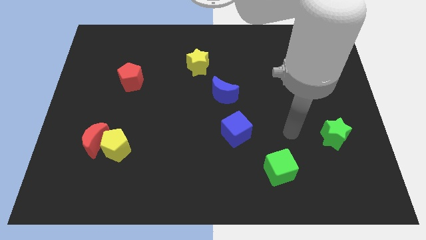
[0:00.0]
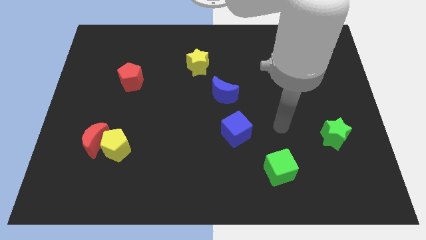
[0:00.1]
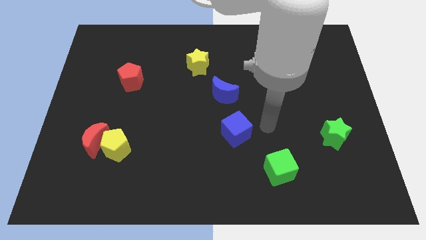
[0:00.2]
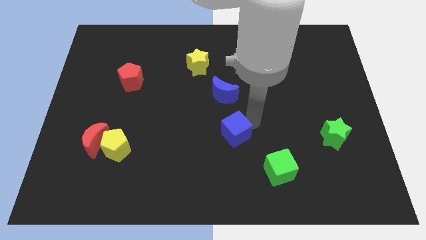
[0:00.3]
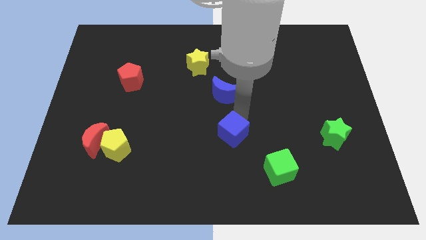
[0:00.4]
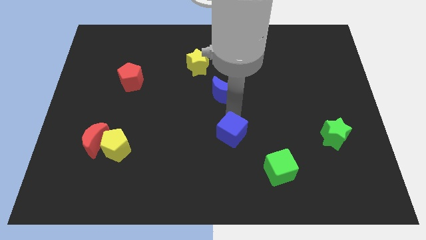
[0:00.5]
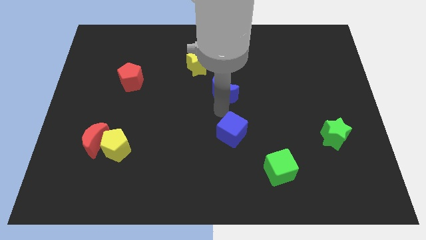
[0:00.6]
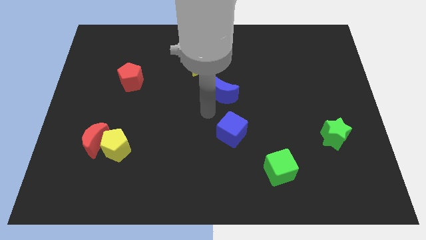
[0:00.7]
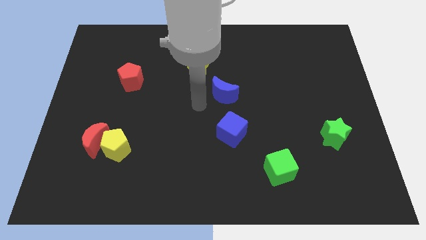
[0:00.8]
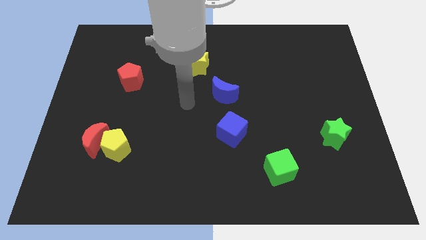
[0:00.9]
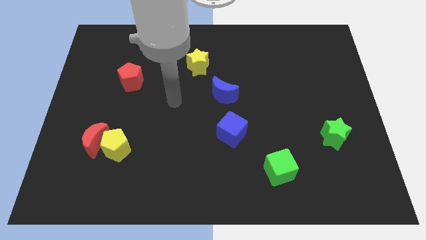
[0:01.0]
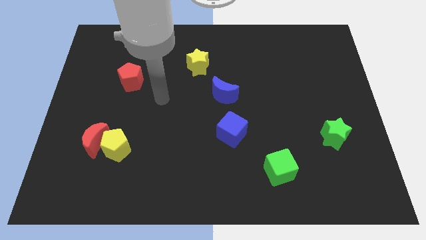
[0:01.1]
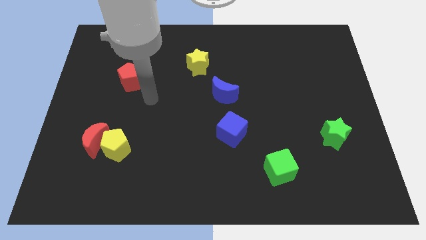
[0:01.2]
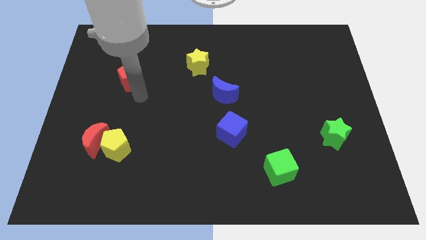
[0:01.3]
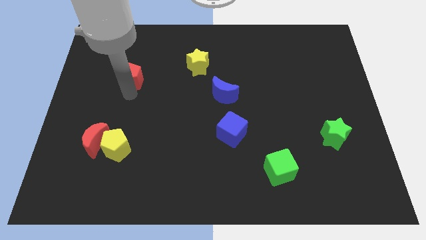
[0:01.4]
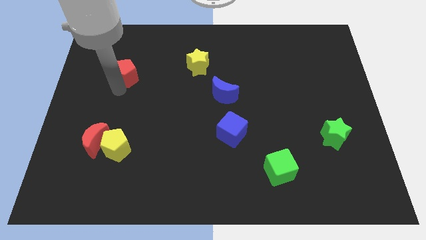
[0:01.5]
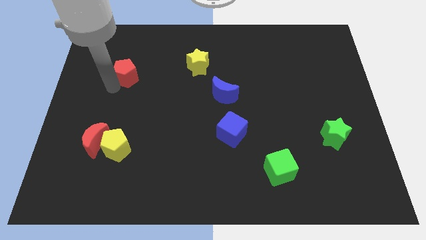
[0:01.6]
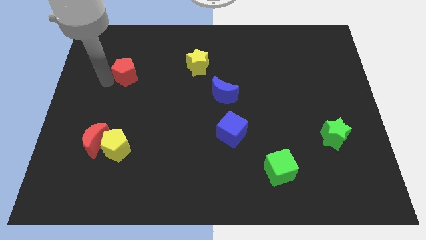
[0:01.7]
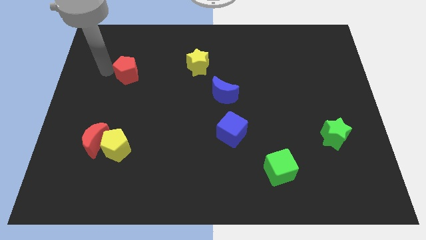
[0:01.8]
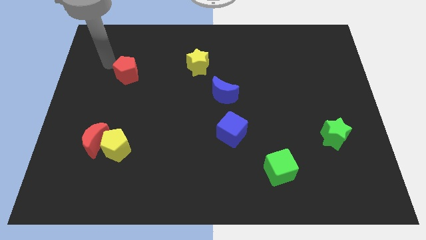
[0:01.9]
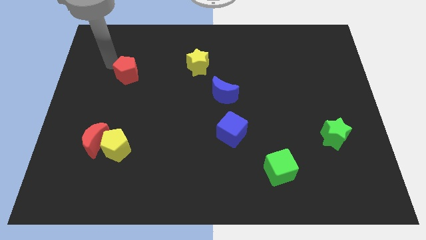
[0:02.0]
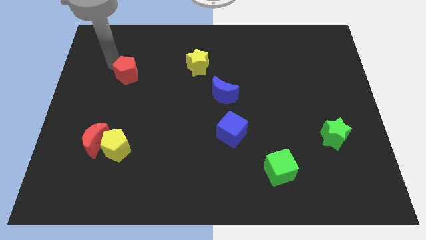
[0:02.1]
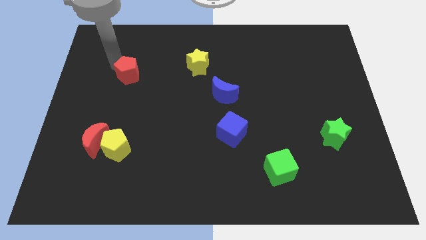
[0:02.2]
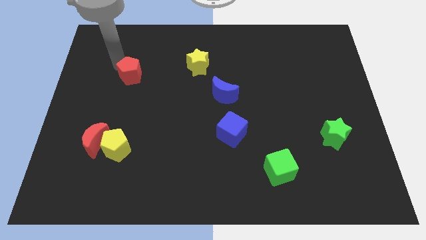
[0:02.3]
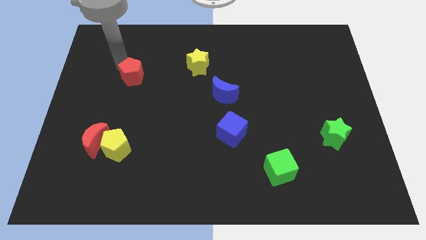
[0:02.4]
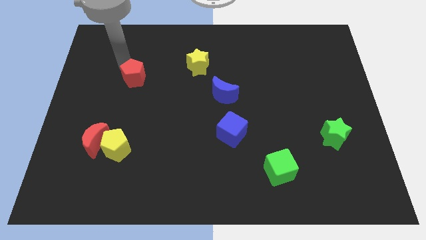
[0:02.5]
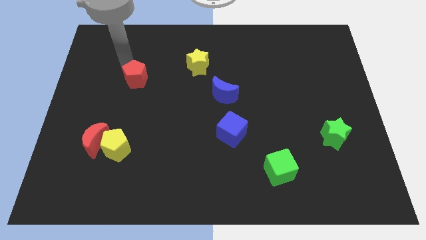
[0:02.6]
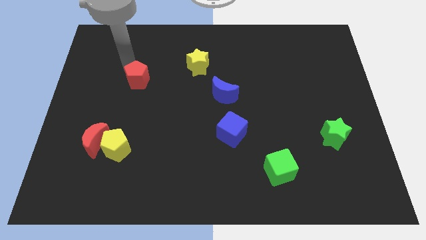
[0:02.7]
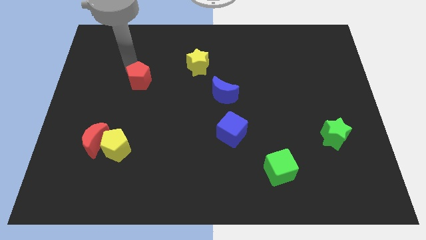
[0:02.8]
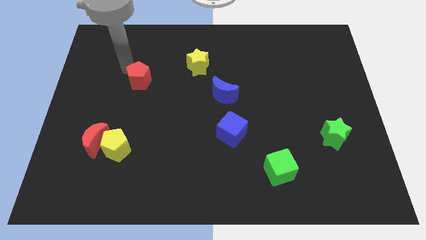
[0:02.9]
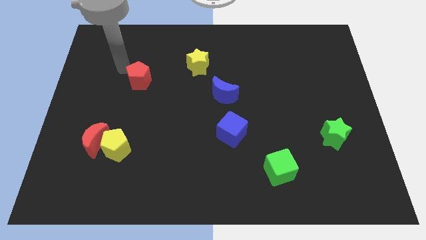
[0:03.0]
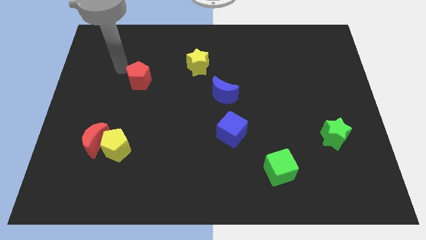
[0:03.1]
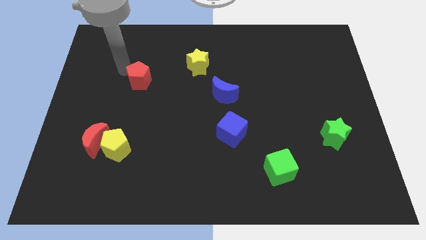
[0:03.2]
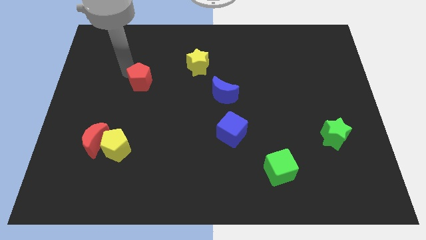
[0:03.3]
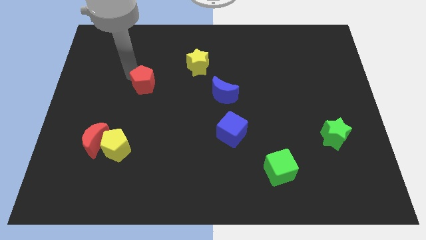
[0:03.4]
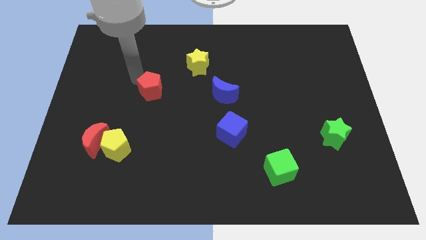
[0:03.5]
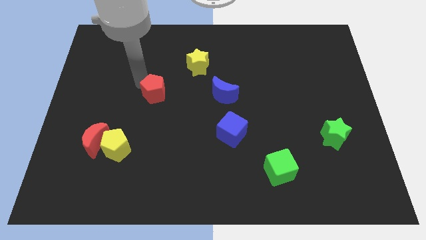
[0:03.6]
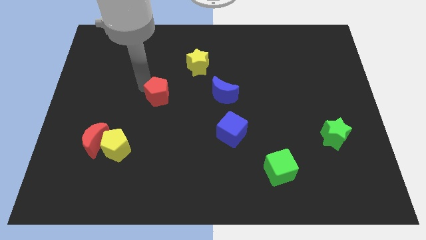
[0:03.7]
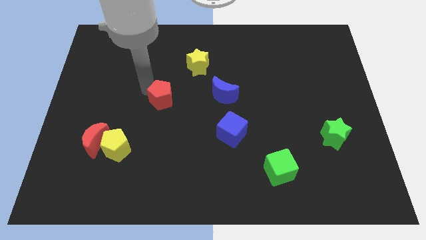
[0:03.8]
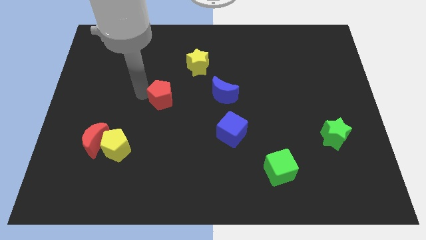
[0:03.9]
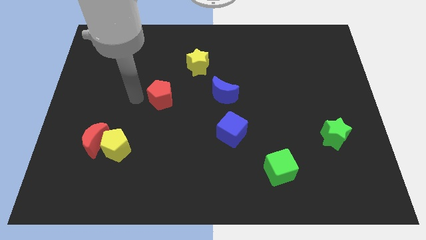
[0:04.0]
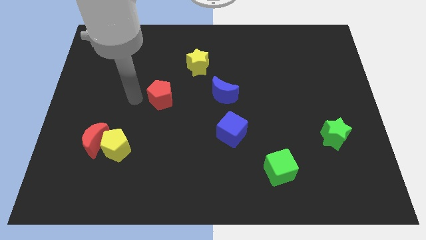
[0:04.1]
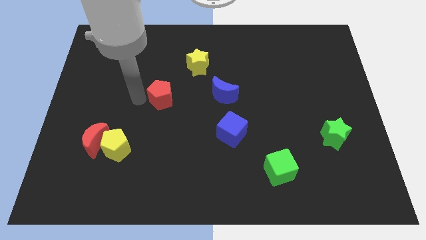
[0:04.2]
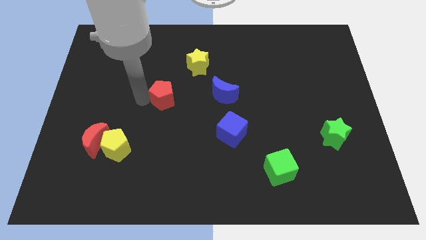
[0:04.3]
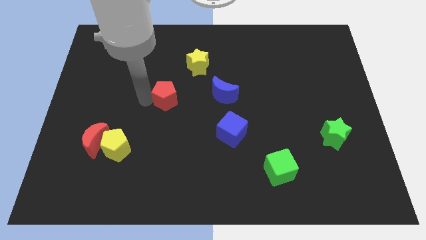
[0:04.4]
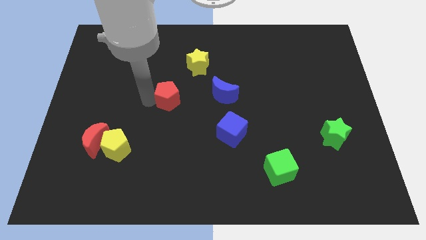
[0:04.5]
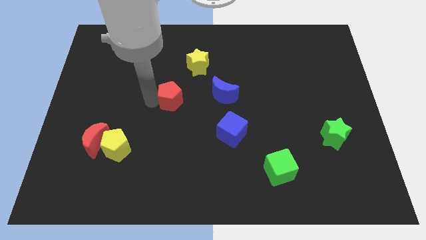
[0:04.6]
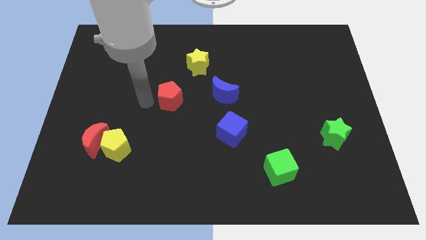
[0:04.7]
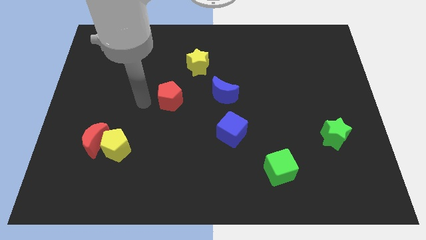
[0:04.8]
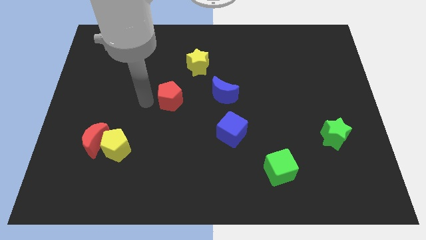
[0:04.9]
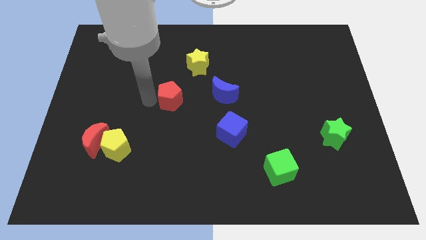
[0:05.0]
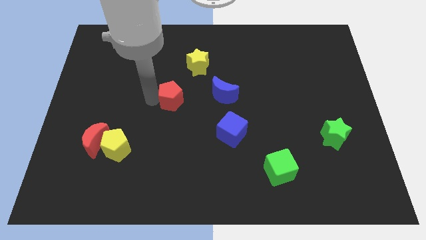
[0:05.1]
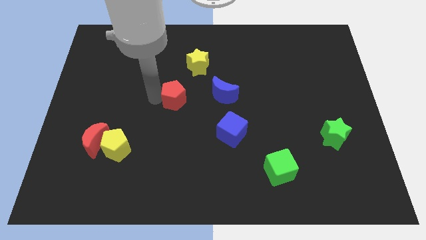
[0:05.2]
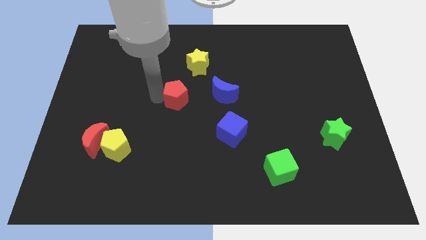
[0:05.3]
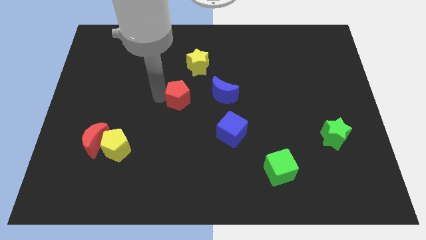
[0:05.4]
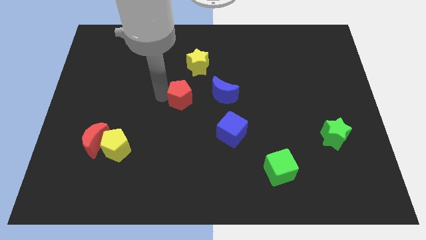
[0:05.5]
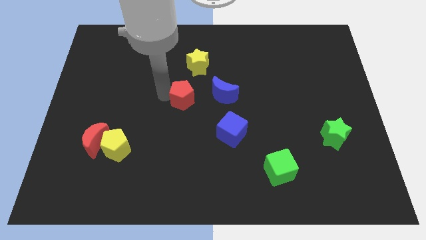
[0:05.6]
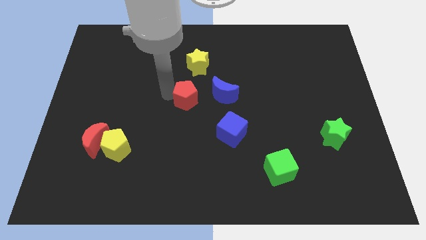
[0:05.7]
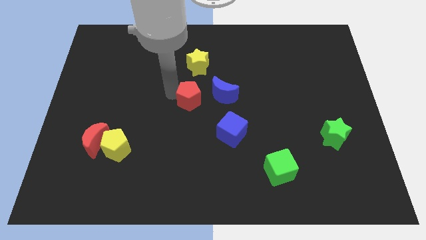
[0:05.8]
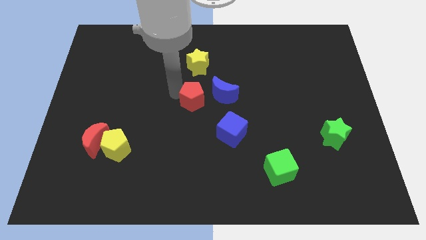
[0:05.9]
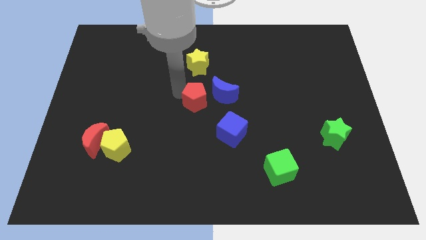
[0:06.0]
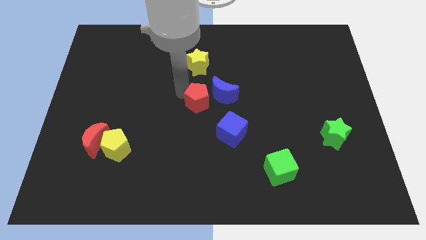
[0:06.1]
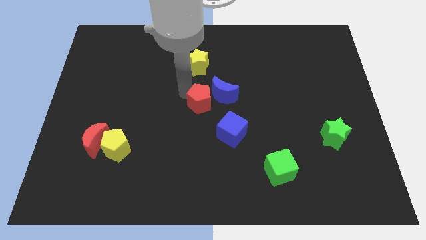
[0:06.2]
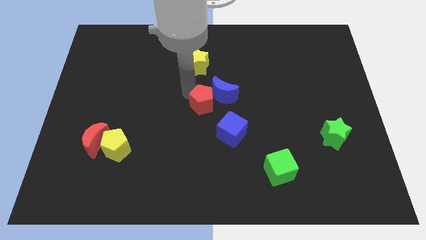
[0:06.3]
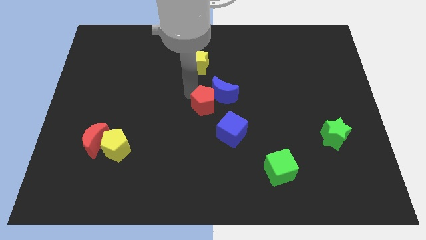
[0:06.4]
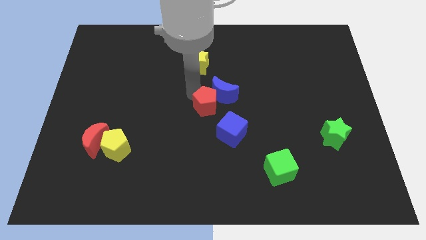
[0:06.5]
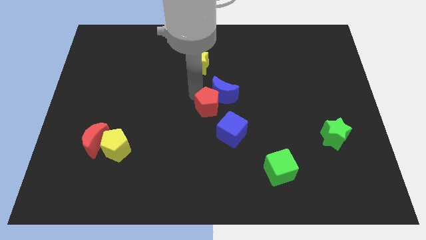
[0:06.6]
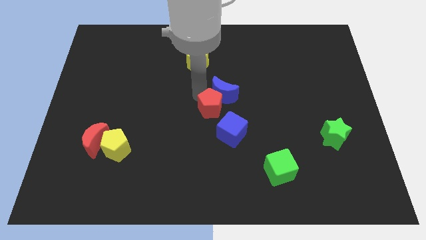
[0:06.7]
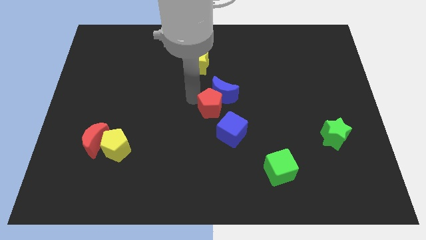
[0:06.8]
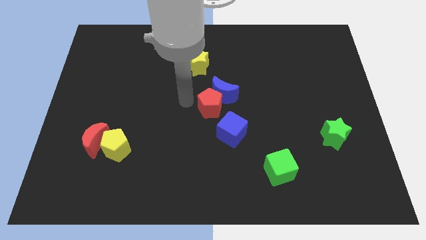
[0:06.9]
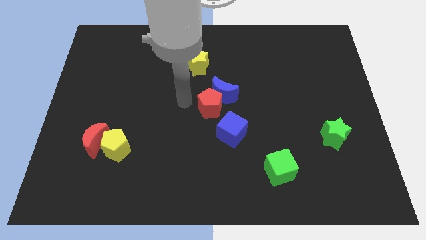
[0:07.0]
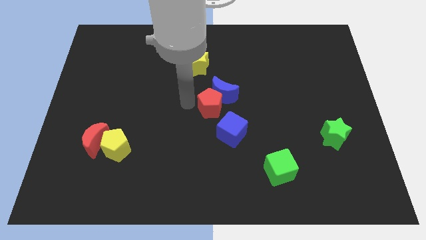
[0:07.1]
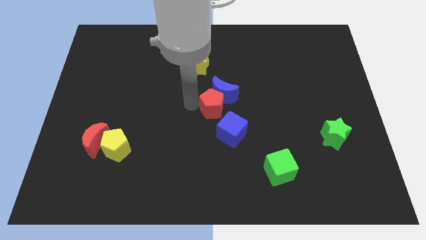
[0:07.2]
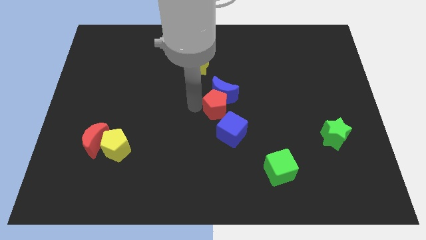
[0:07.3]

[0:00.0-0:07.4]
slide the red pentagon diagonally down and to the right of the blue moon

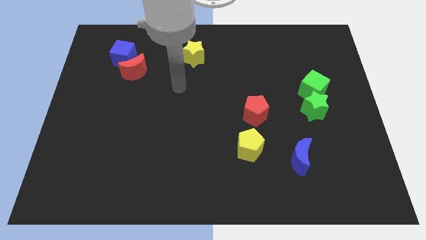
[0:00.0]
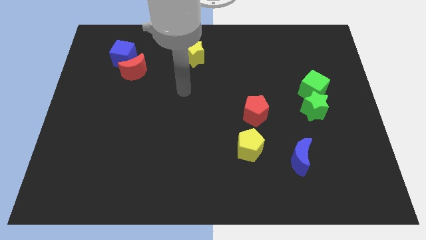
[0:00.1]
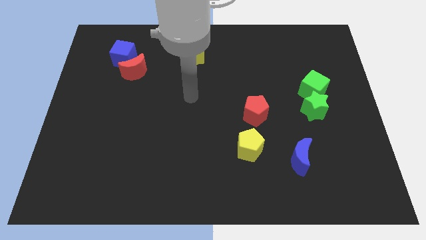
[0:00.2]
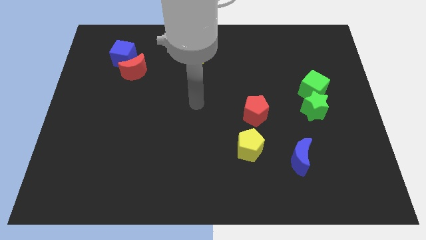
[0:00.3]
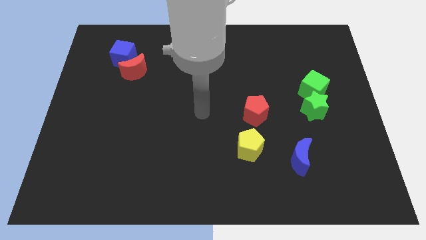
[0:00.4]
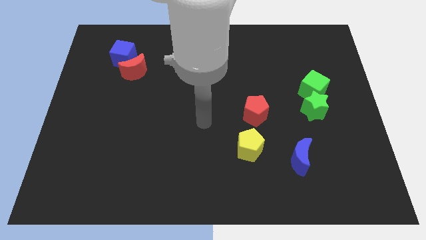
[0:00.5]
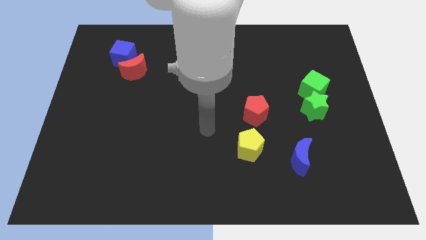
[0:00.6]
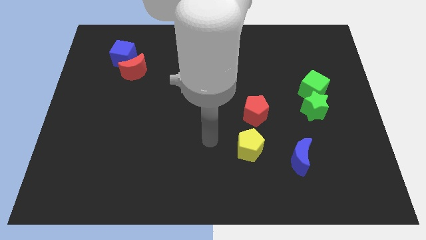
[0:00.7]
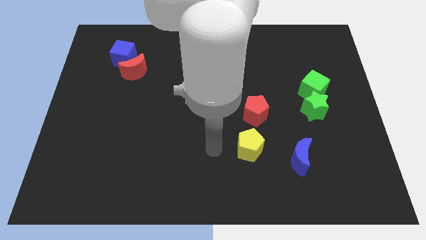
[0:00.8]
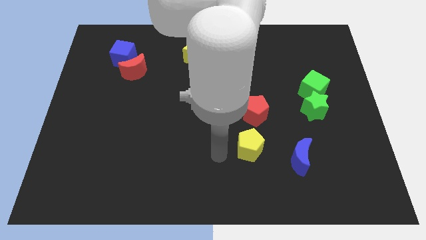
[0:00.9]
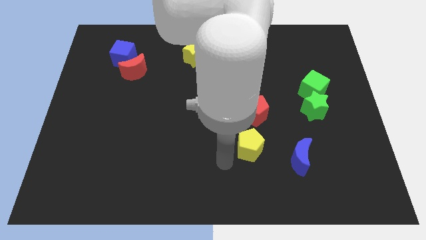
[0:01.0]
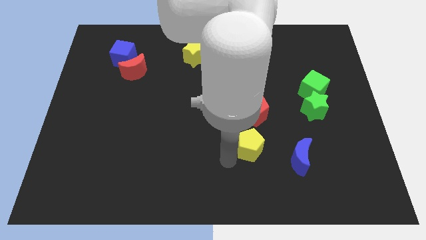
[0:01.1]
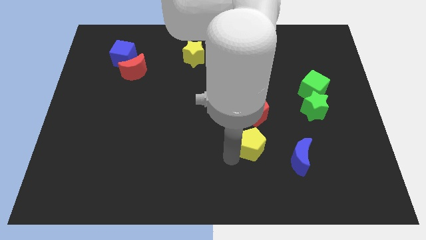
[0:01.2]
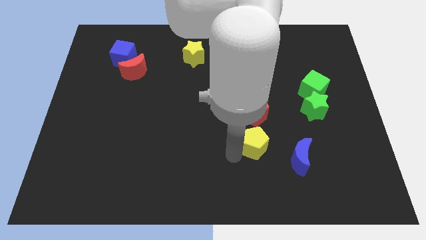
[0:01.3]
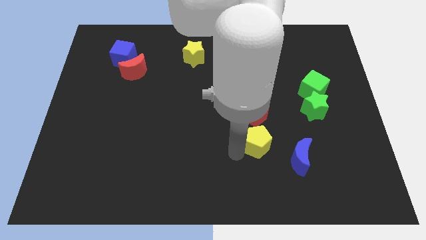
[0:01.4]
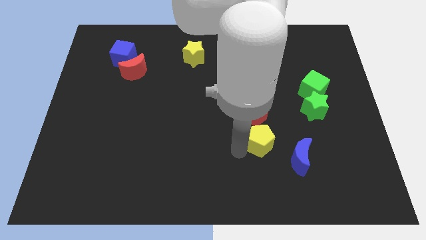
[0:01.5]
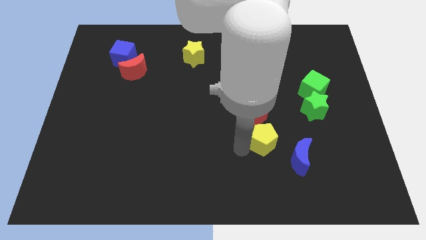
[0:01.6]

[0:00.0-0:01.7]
slide the yellow pentagon to the bottom right of the red pentagon
